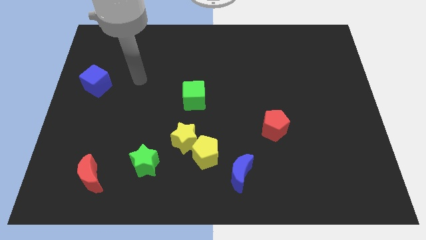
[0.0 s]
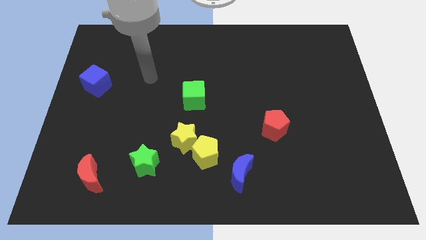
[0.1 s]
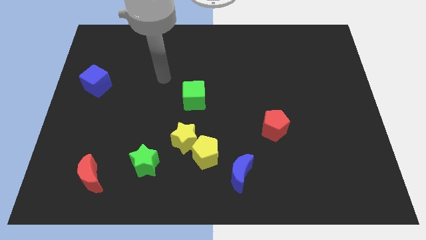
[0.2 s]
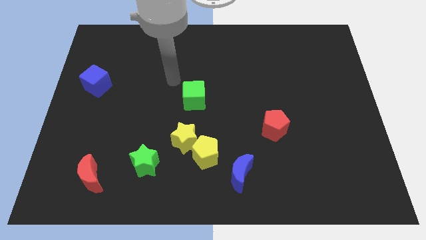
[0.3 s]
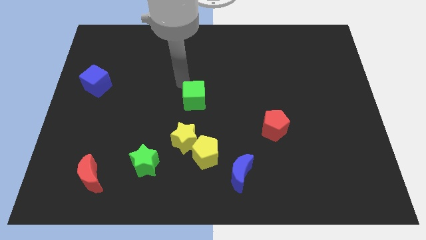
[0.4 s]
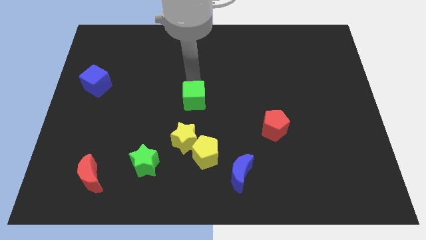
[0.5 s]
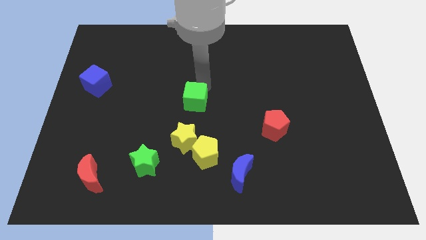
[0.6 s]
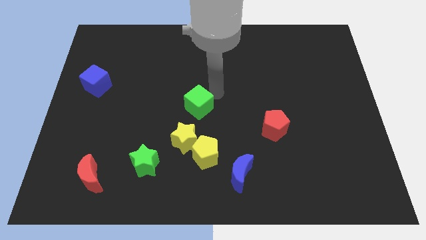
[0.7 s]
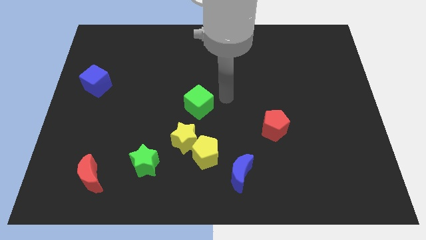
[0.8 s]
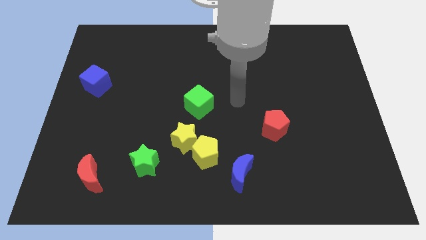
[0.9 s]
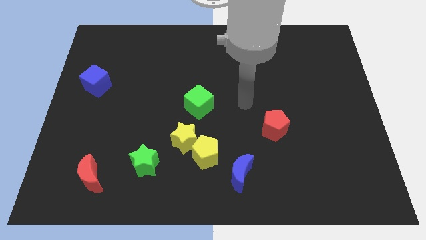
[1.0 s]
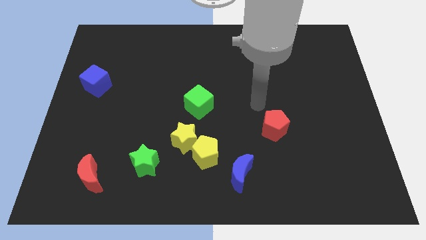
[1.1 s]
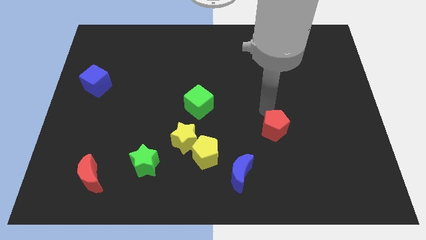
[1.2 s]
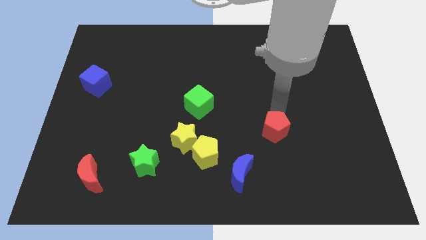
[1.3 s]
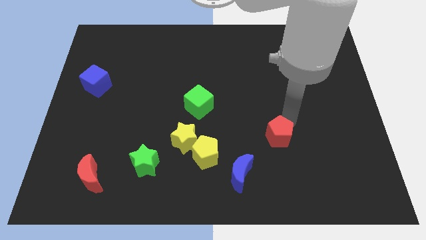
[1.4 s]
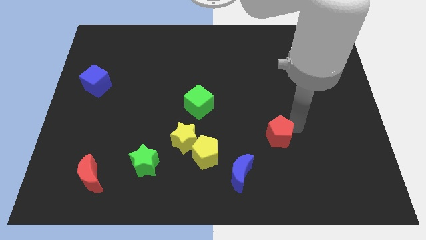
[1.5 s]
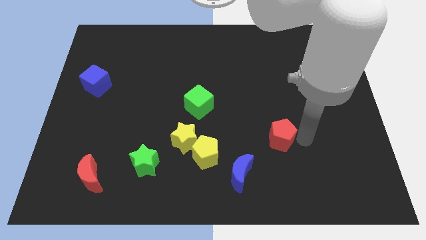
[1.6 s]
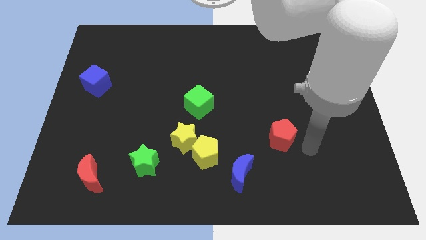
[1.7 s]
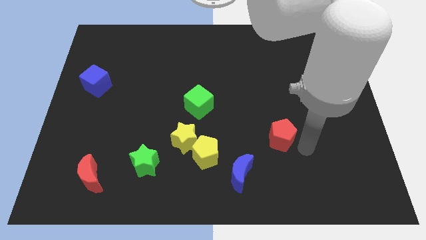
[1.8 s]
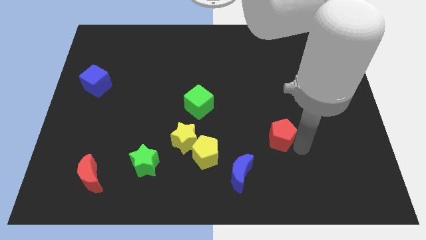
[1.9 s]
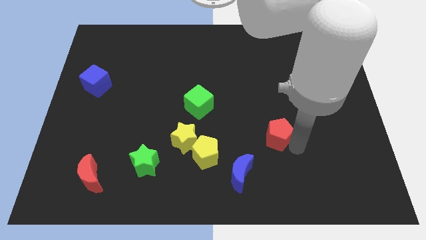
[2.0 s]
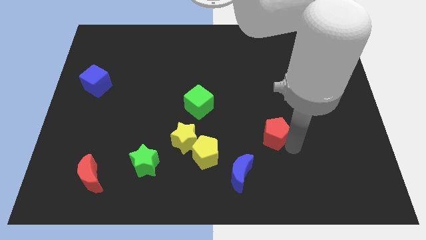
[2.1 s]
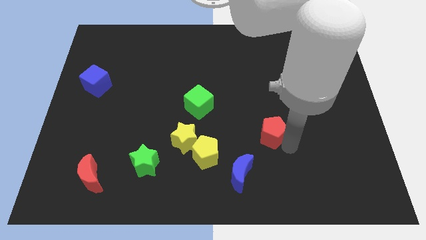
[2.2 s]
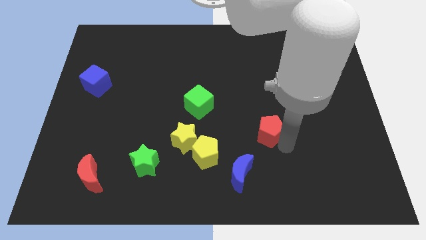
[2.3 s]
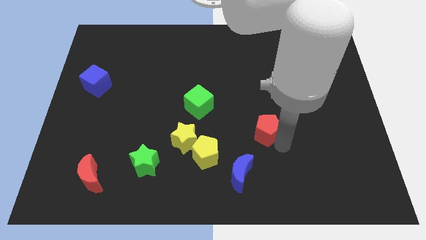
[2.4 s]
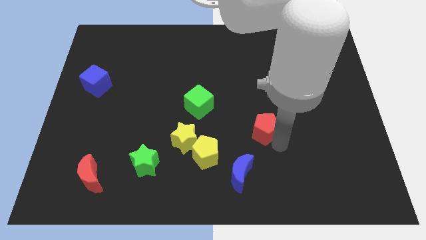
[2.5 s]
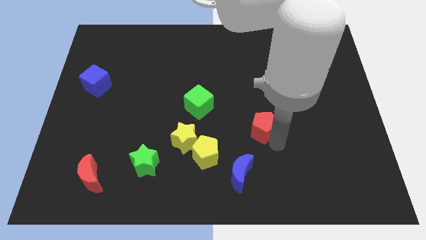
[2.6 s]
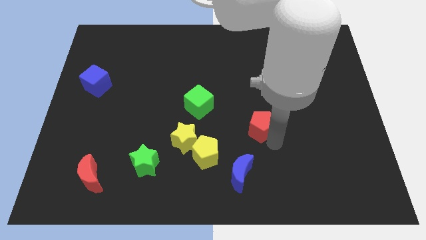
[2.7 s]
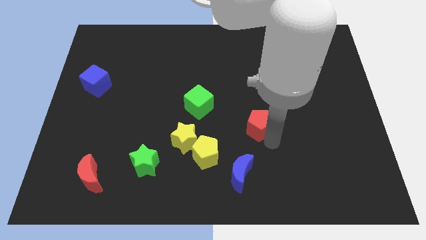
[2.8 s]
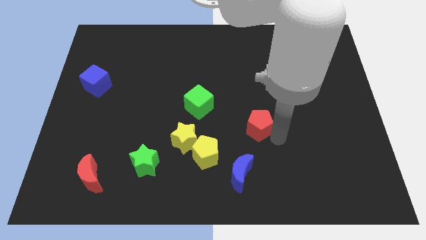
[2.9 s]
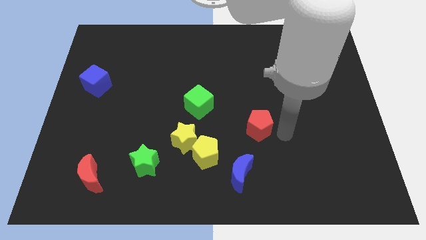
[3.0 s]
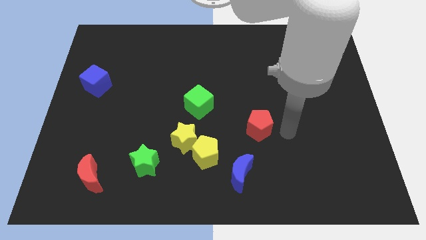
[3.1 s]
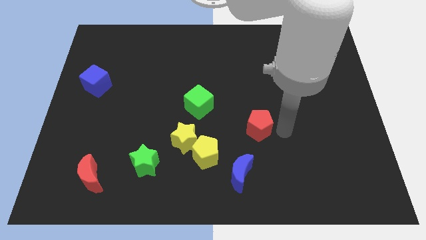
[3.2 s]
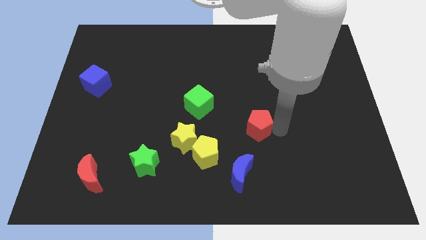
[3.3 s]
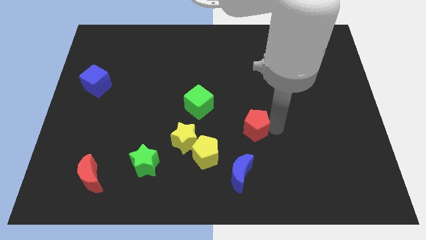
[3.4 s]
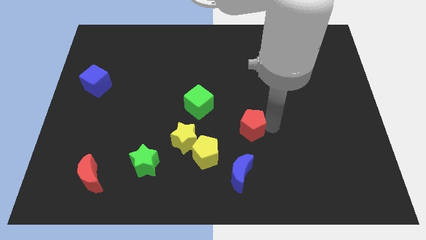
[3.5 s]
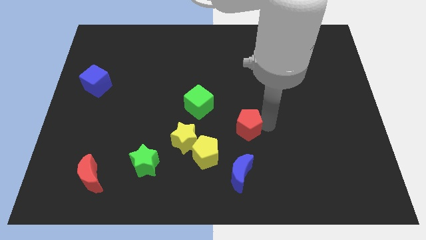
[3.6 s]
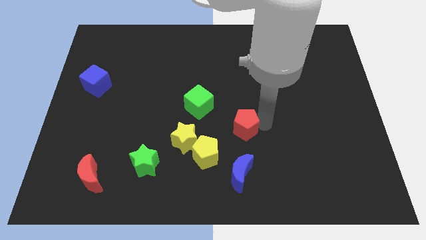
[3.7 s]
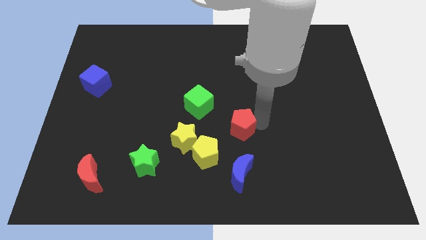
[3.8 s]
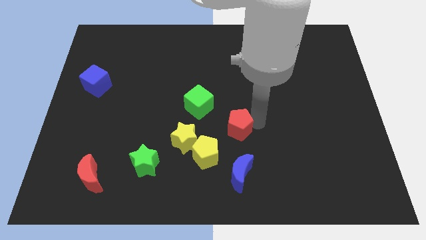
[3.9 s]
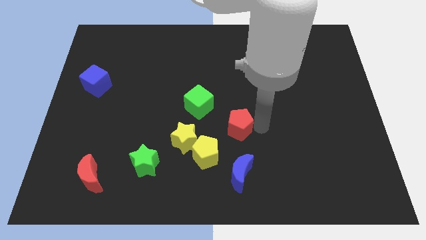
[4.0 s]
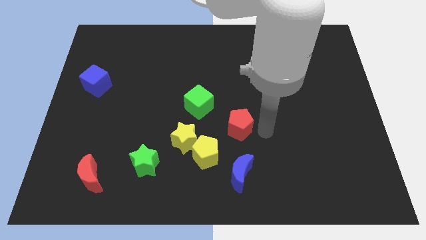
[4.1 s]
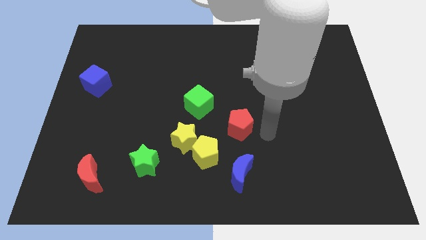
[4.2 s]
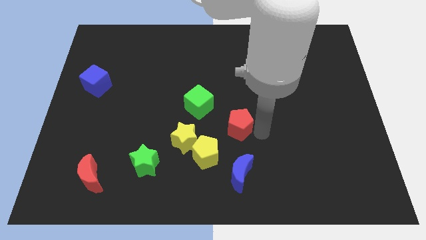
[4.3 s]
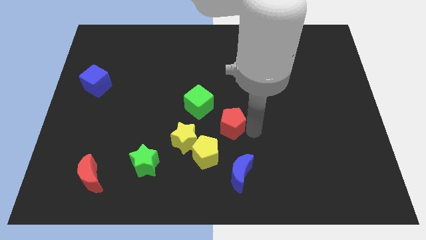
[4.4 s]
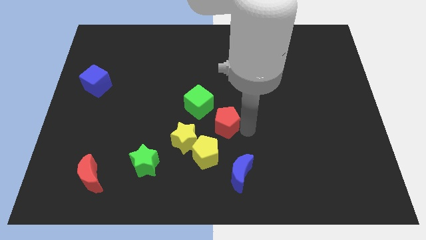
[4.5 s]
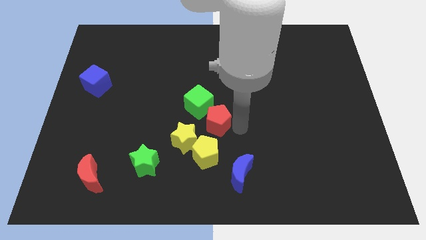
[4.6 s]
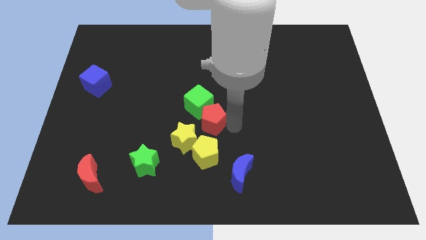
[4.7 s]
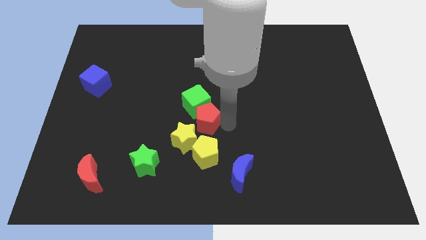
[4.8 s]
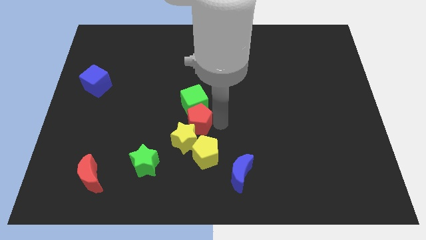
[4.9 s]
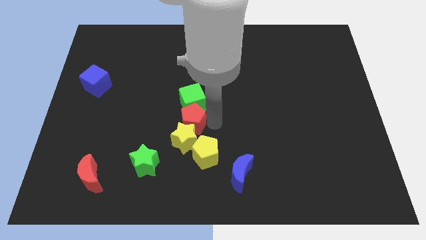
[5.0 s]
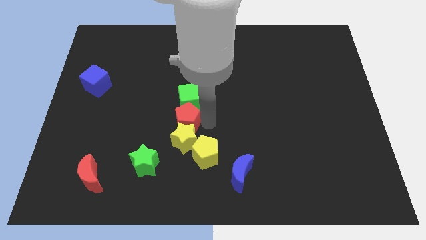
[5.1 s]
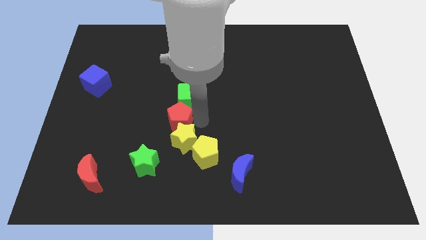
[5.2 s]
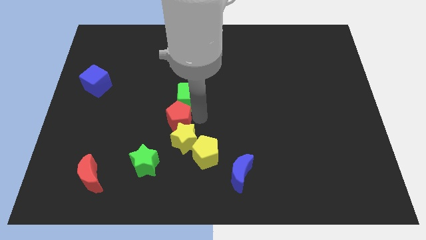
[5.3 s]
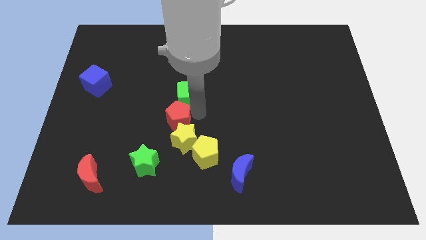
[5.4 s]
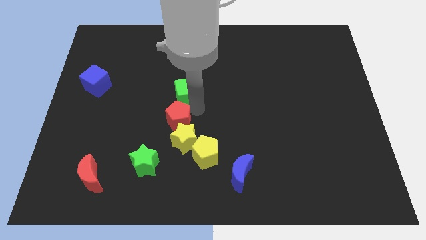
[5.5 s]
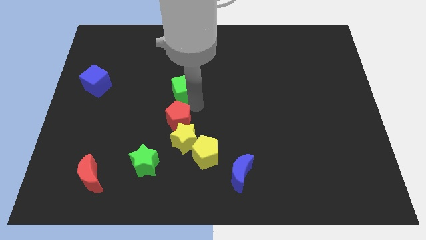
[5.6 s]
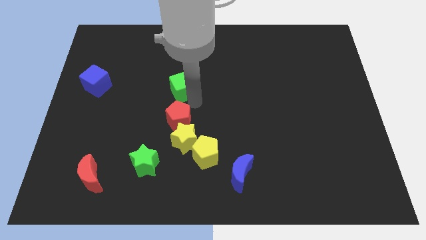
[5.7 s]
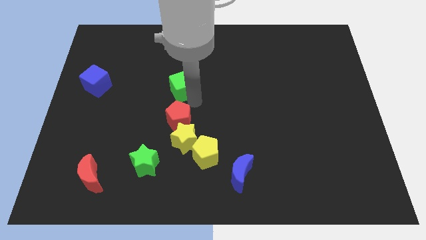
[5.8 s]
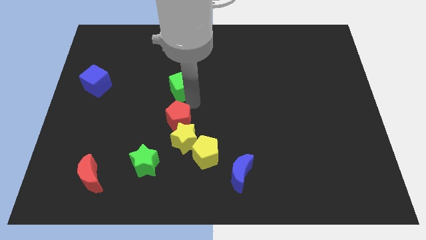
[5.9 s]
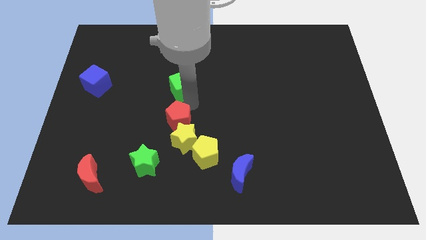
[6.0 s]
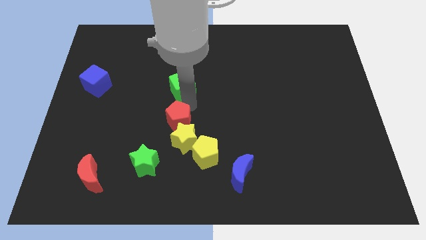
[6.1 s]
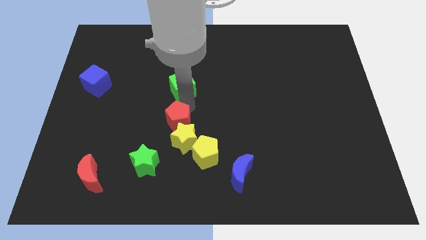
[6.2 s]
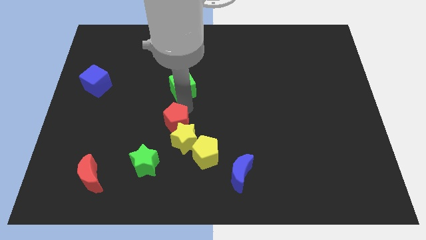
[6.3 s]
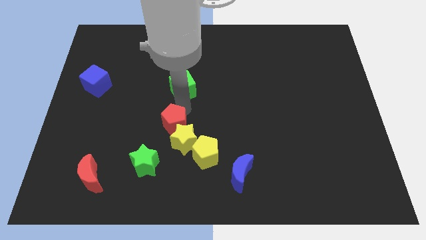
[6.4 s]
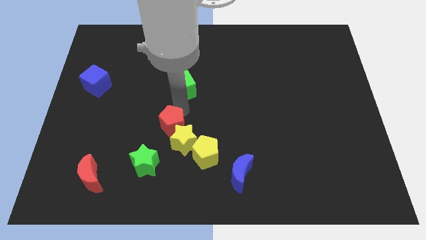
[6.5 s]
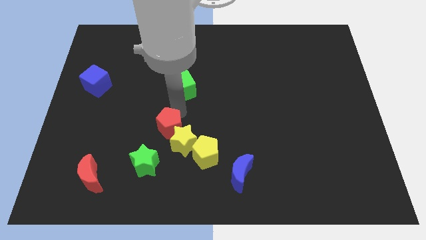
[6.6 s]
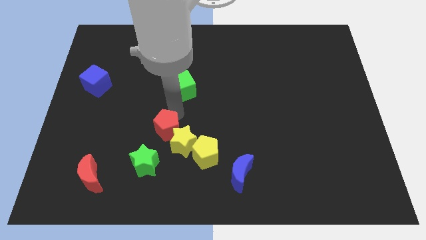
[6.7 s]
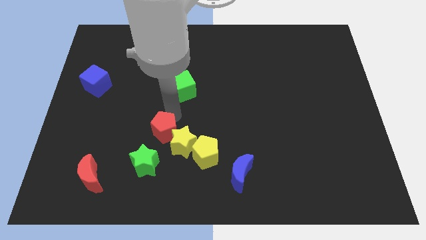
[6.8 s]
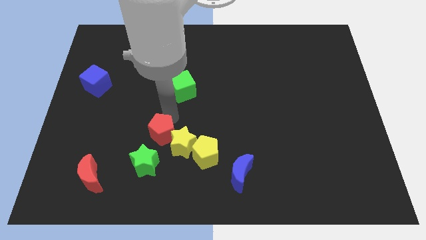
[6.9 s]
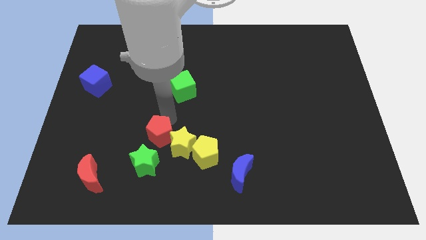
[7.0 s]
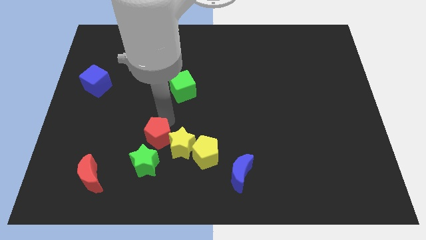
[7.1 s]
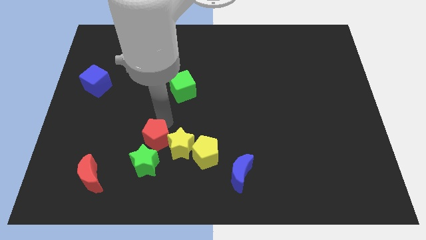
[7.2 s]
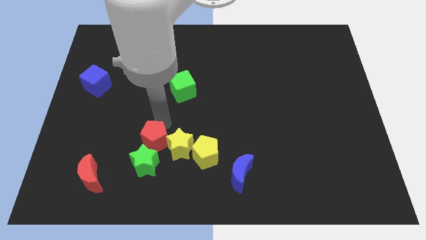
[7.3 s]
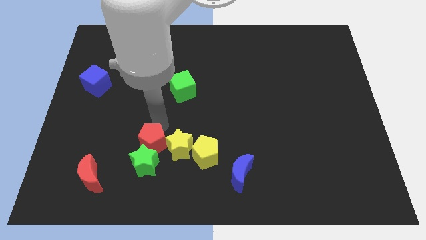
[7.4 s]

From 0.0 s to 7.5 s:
push the red pentagon towards the green star
